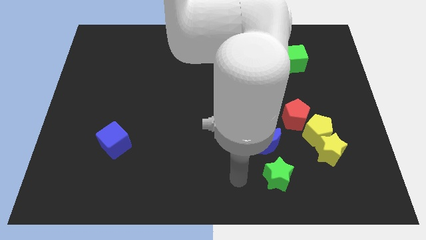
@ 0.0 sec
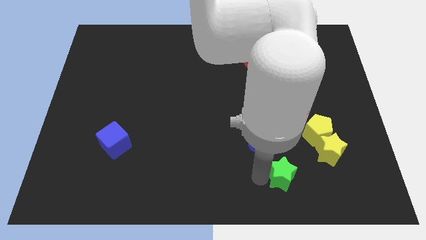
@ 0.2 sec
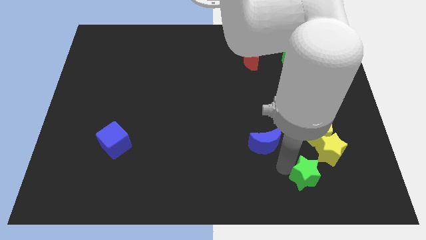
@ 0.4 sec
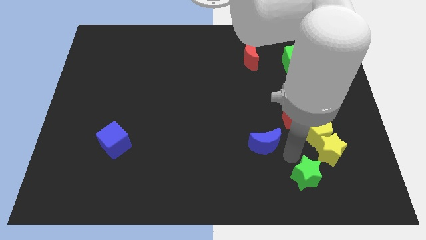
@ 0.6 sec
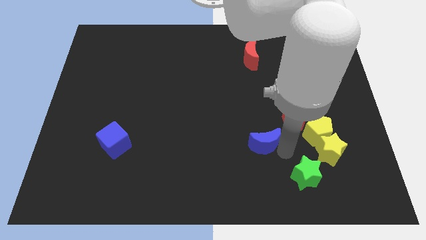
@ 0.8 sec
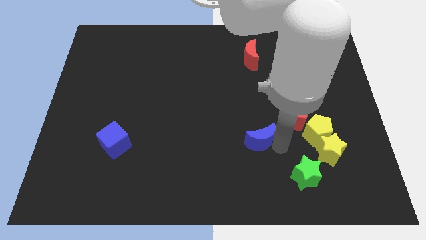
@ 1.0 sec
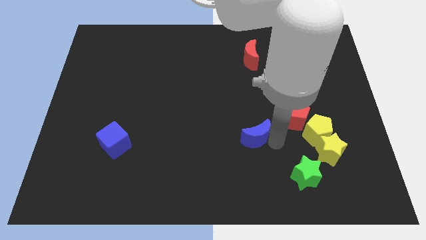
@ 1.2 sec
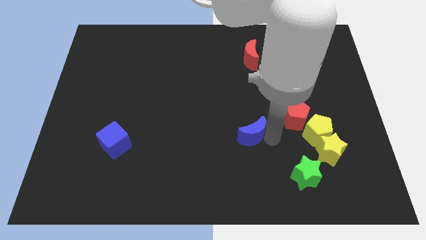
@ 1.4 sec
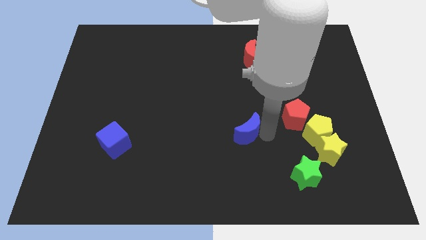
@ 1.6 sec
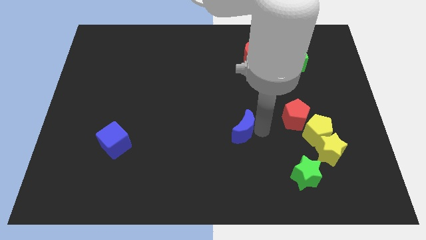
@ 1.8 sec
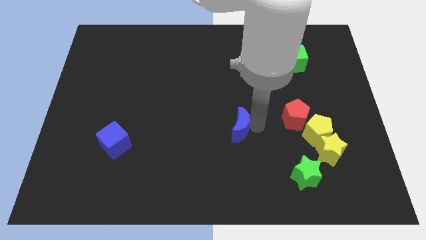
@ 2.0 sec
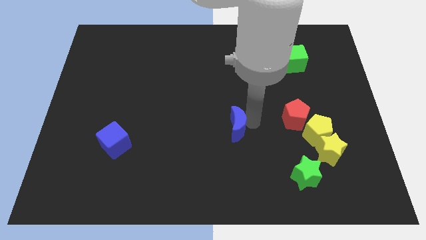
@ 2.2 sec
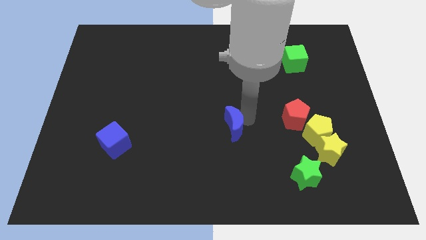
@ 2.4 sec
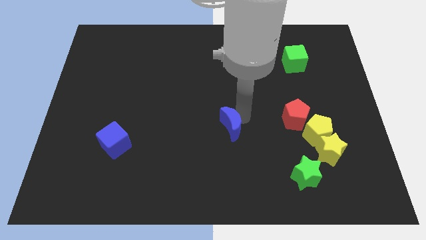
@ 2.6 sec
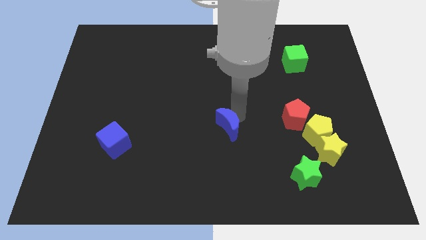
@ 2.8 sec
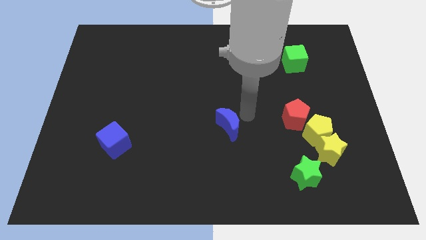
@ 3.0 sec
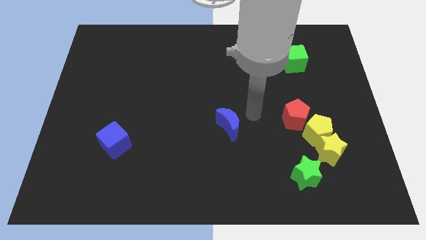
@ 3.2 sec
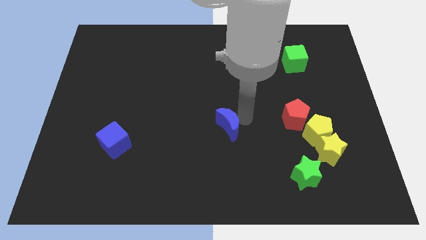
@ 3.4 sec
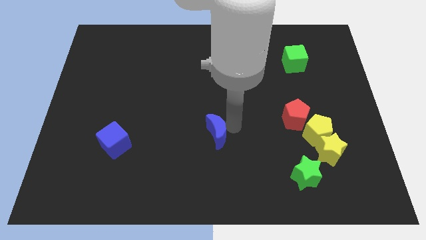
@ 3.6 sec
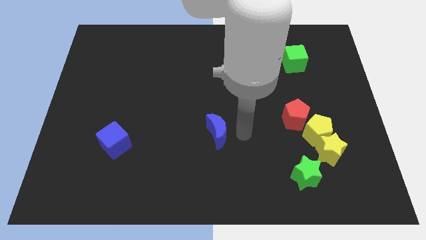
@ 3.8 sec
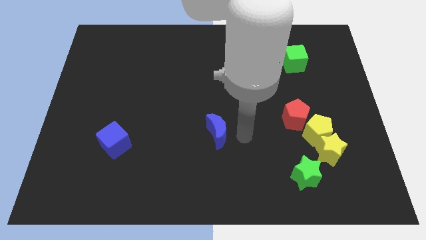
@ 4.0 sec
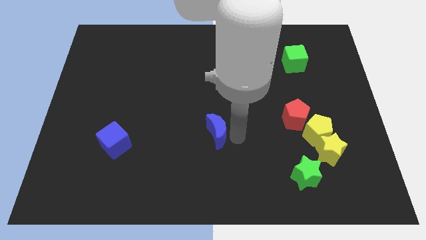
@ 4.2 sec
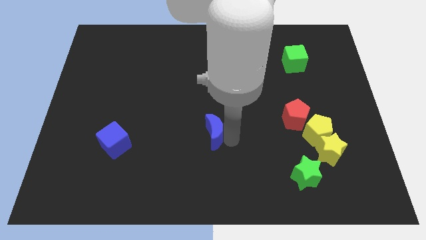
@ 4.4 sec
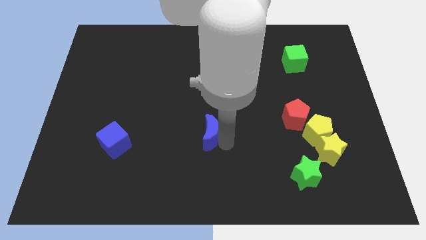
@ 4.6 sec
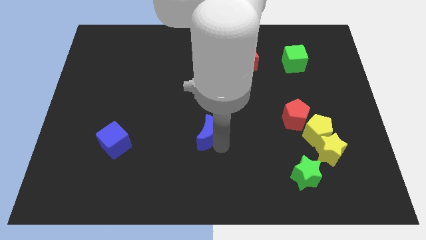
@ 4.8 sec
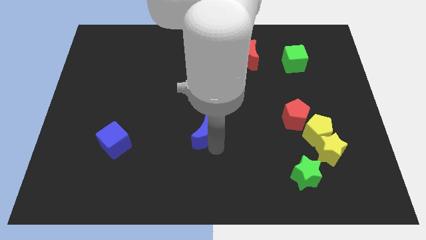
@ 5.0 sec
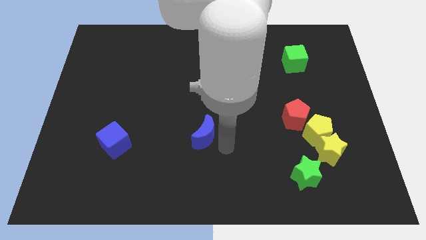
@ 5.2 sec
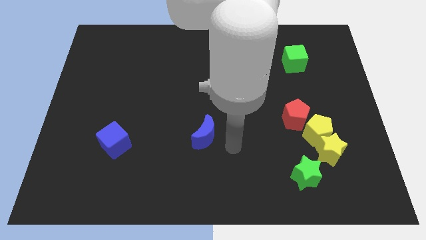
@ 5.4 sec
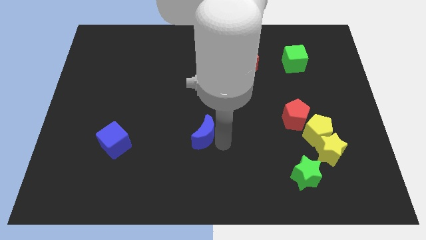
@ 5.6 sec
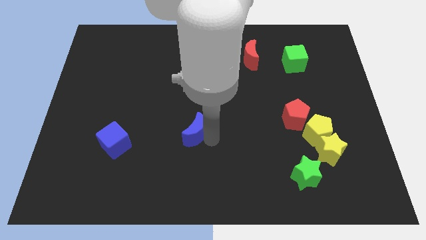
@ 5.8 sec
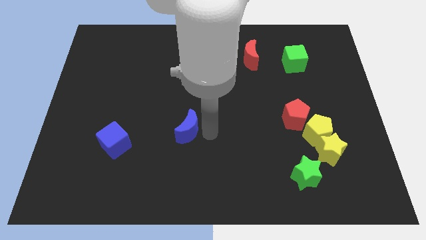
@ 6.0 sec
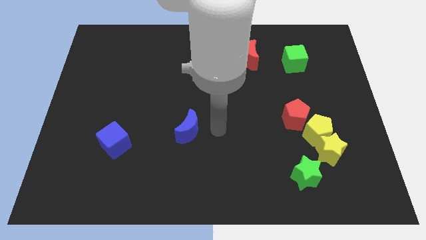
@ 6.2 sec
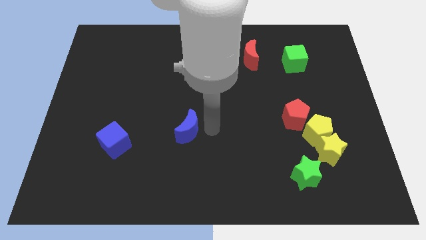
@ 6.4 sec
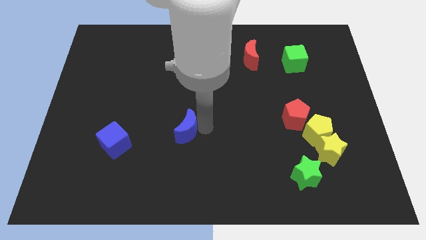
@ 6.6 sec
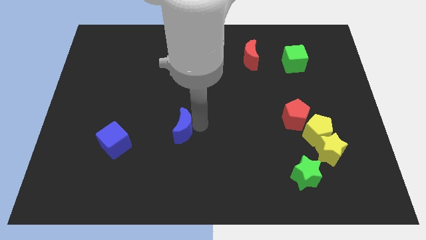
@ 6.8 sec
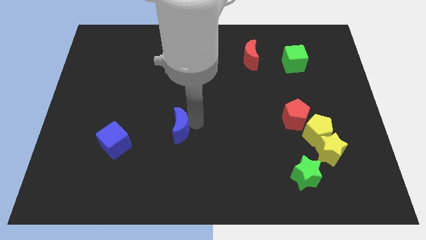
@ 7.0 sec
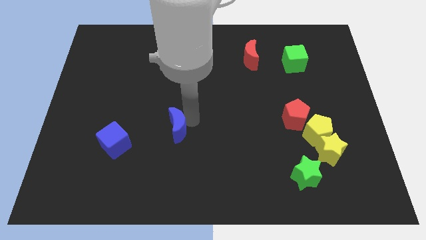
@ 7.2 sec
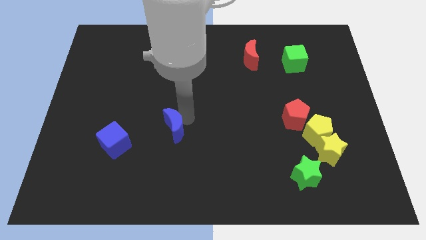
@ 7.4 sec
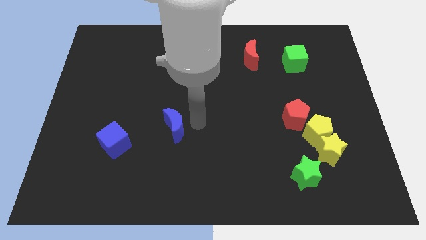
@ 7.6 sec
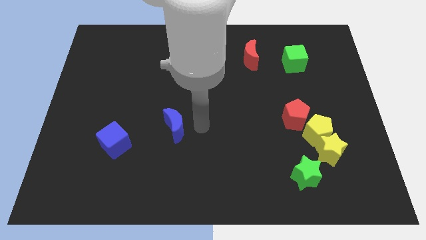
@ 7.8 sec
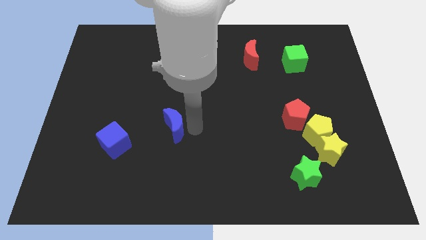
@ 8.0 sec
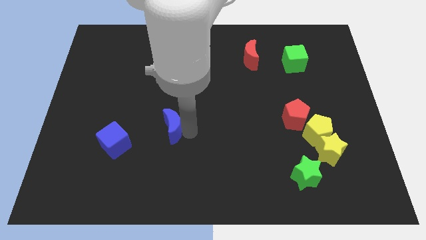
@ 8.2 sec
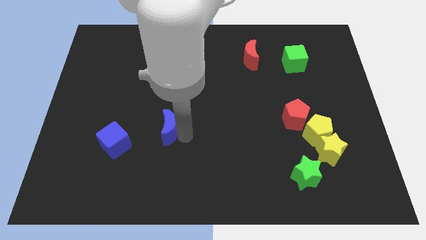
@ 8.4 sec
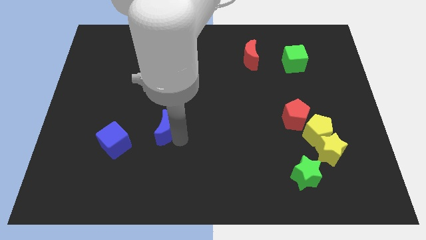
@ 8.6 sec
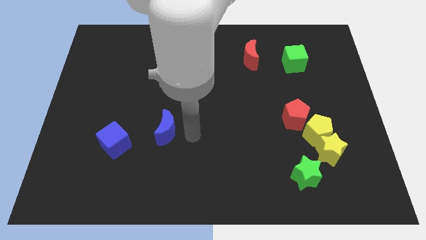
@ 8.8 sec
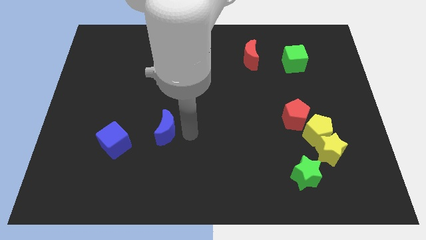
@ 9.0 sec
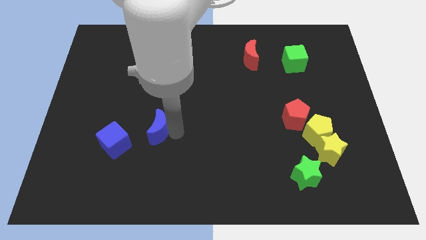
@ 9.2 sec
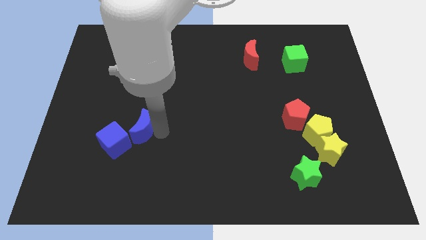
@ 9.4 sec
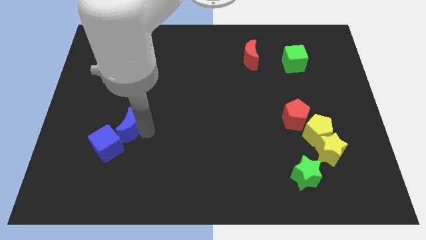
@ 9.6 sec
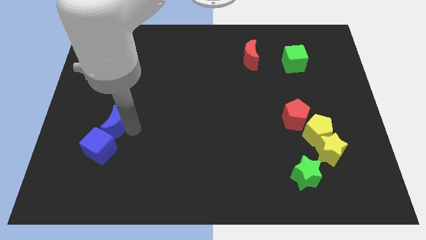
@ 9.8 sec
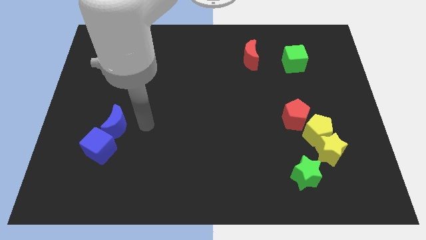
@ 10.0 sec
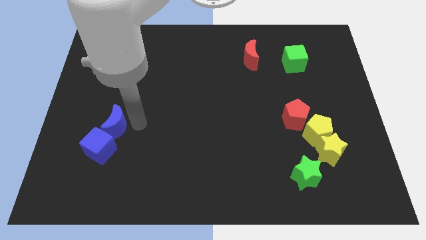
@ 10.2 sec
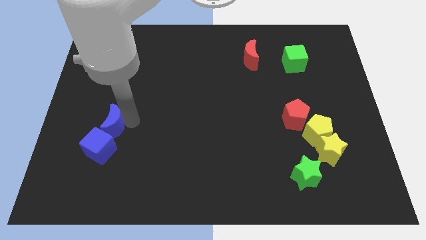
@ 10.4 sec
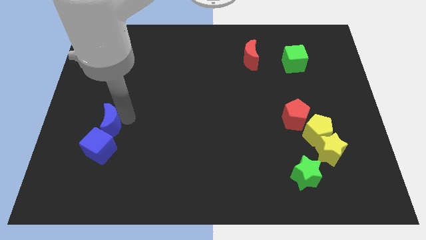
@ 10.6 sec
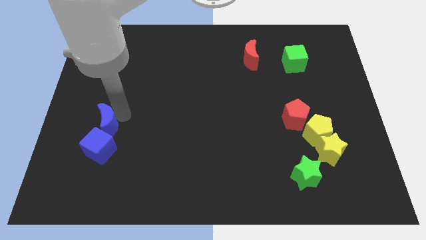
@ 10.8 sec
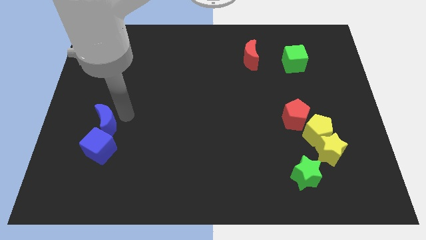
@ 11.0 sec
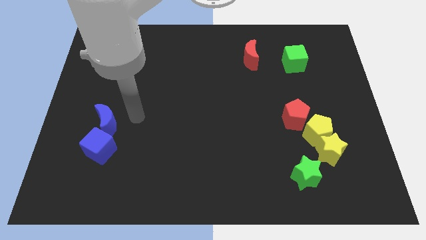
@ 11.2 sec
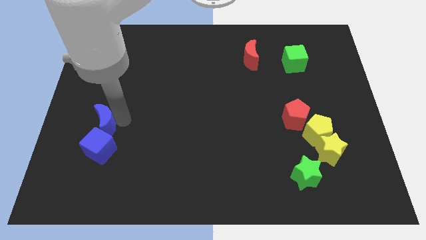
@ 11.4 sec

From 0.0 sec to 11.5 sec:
slide the blue moon to the top left of the blue cube

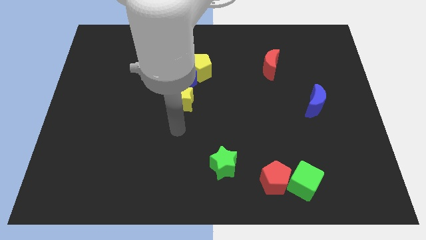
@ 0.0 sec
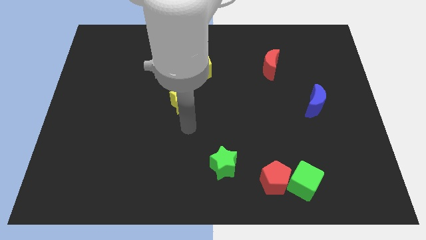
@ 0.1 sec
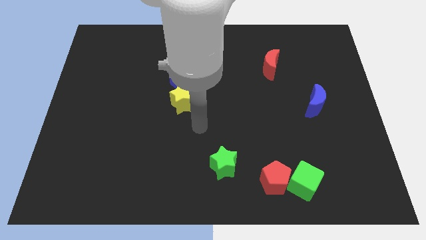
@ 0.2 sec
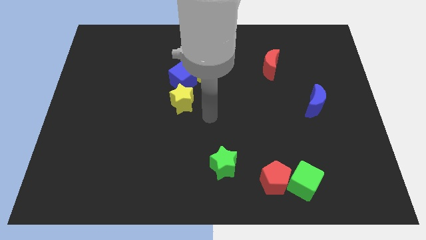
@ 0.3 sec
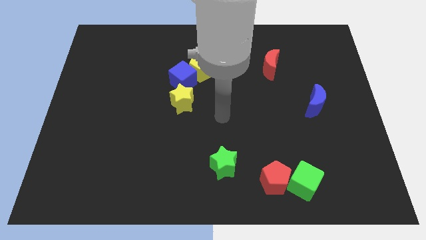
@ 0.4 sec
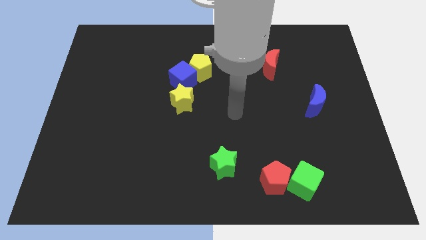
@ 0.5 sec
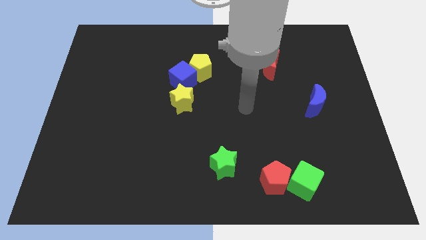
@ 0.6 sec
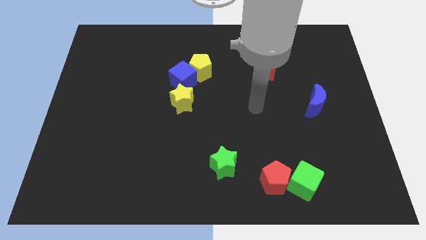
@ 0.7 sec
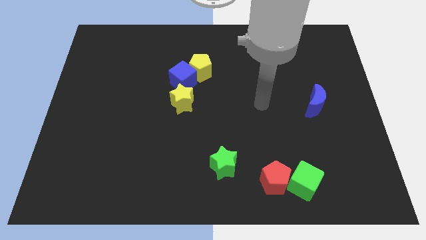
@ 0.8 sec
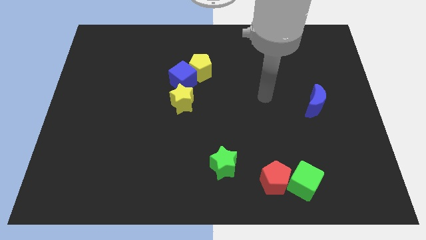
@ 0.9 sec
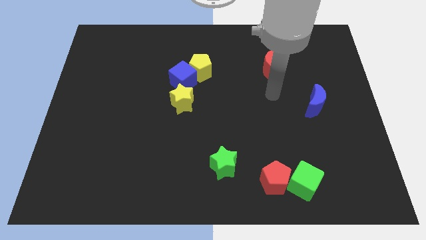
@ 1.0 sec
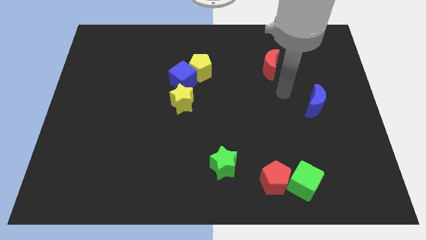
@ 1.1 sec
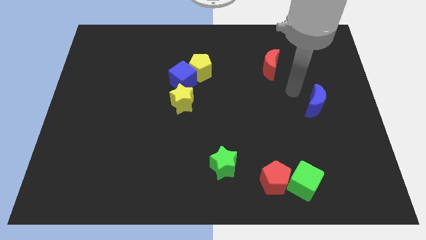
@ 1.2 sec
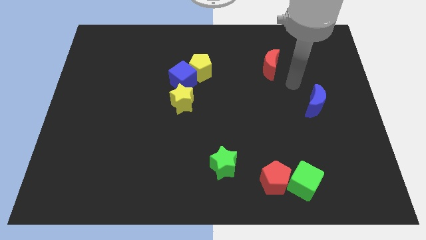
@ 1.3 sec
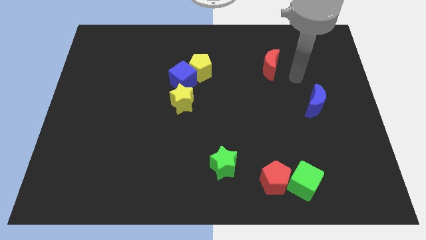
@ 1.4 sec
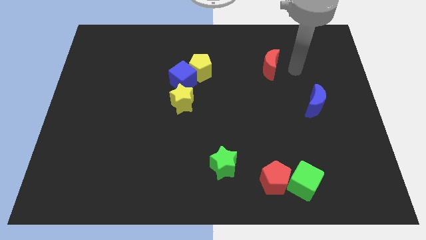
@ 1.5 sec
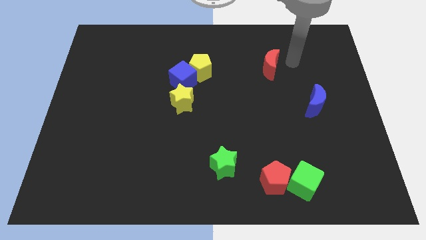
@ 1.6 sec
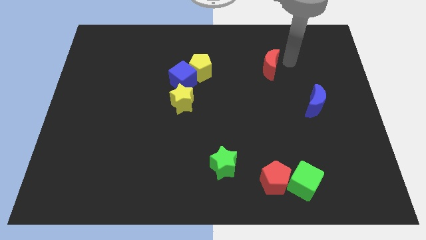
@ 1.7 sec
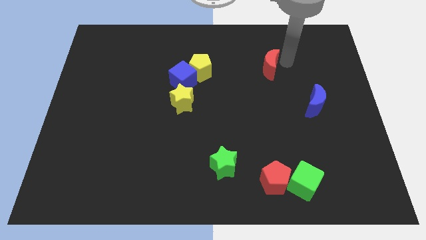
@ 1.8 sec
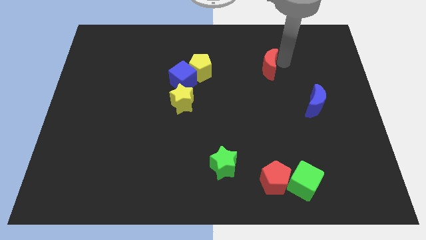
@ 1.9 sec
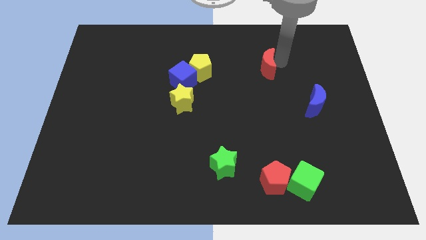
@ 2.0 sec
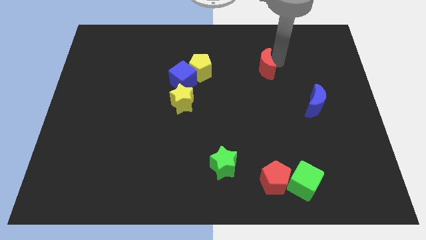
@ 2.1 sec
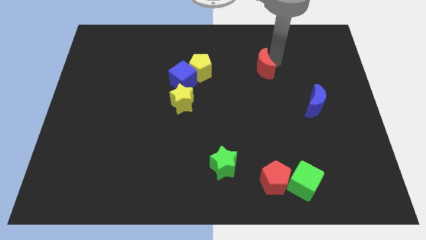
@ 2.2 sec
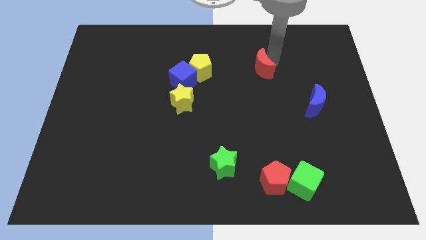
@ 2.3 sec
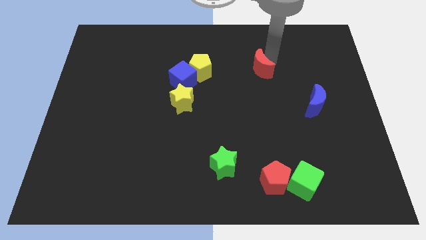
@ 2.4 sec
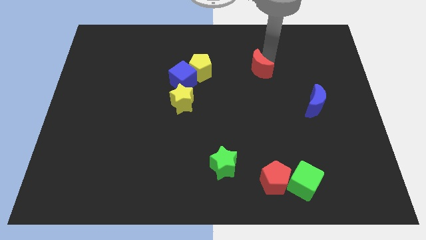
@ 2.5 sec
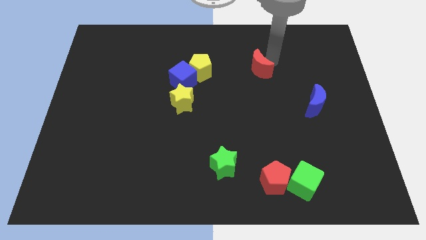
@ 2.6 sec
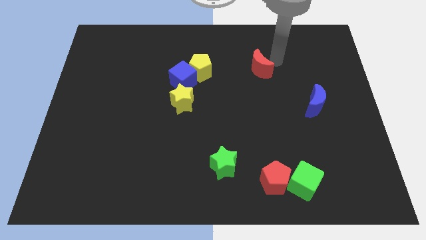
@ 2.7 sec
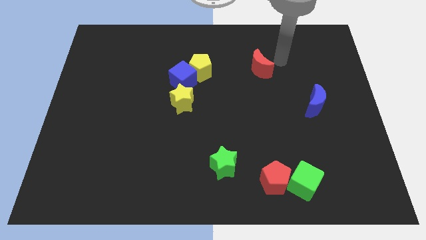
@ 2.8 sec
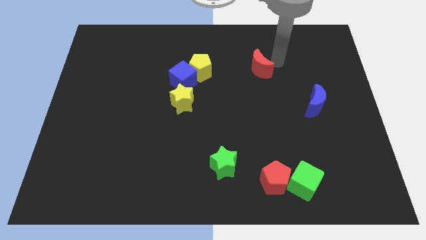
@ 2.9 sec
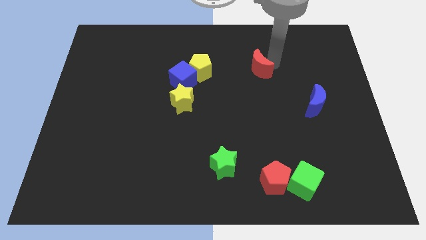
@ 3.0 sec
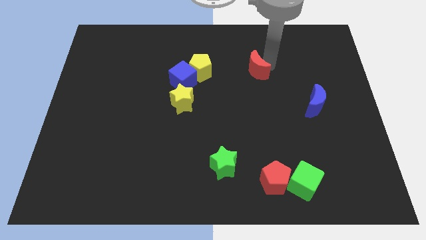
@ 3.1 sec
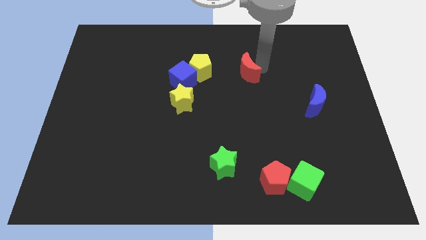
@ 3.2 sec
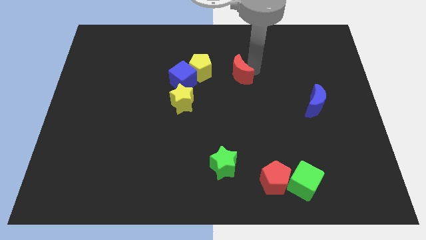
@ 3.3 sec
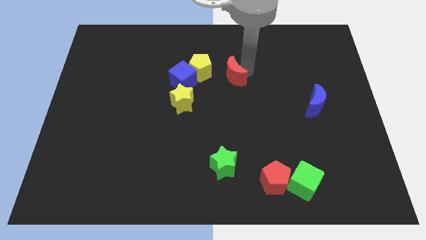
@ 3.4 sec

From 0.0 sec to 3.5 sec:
put the red moon to the bottom right of the yellow pentagon
